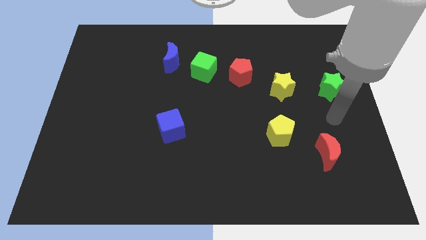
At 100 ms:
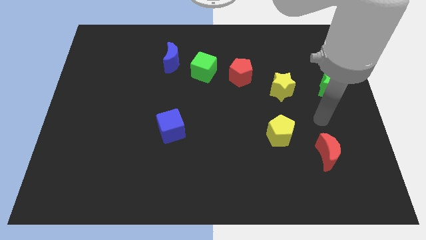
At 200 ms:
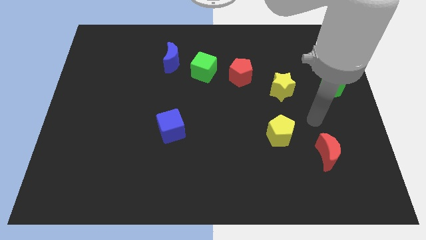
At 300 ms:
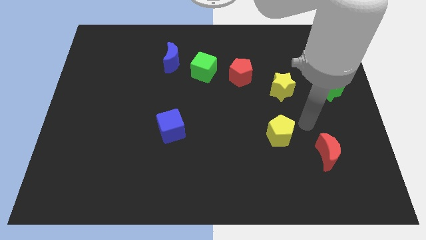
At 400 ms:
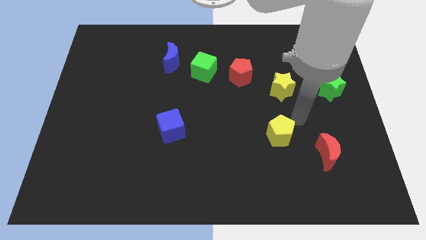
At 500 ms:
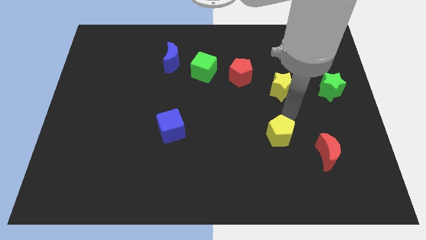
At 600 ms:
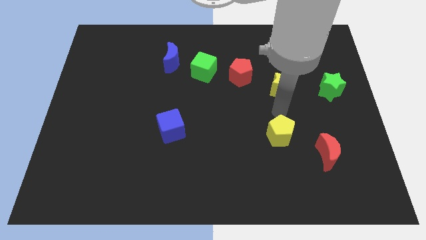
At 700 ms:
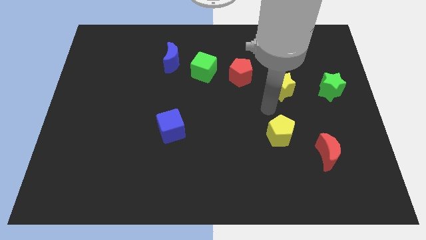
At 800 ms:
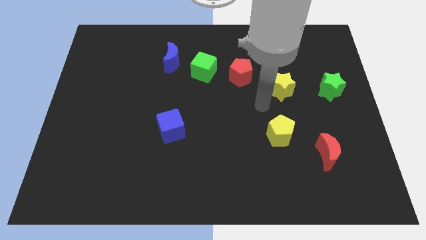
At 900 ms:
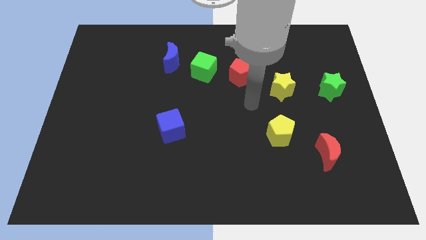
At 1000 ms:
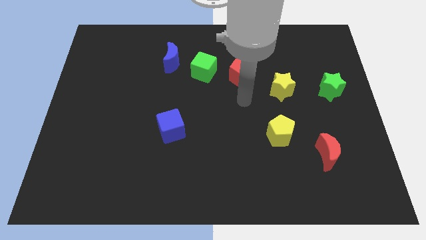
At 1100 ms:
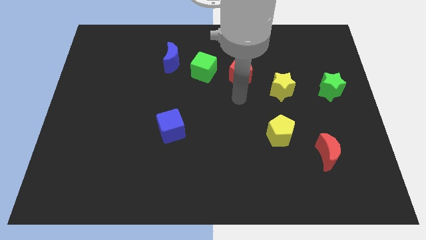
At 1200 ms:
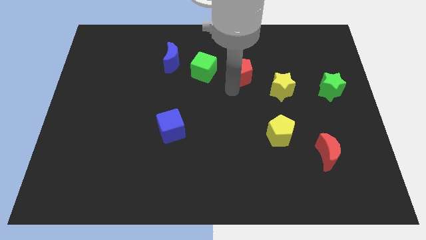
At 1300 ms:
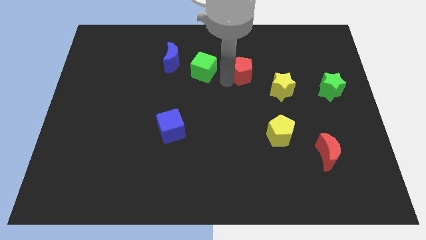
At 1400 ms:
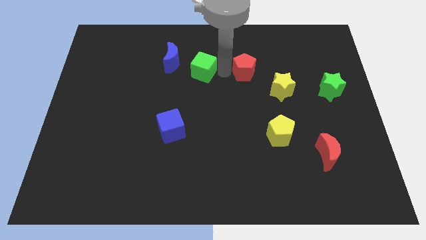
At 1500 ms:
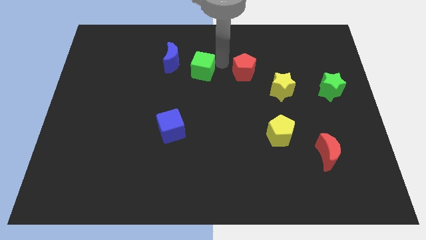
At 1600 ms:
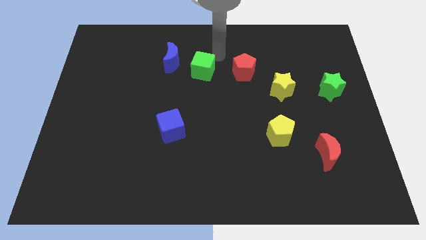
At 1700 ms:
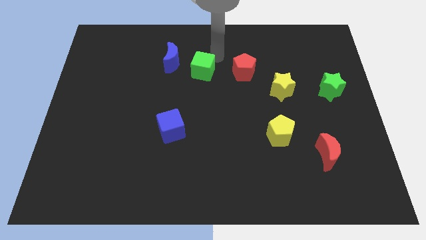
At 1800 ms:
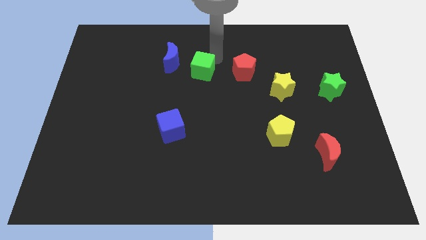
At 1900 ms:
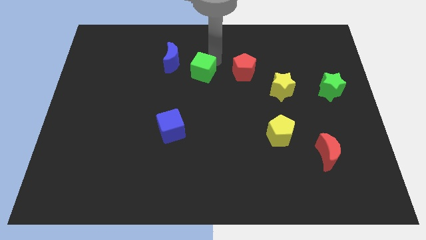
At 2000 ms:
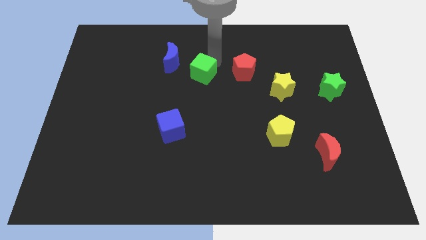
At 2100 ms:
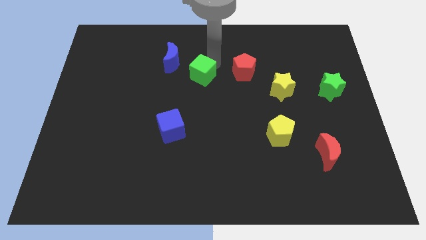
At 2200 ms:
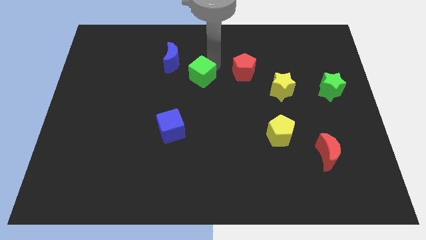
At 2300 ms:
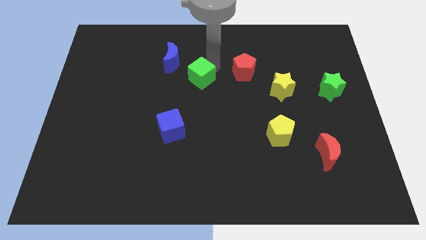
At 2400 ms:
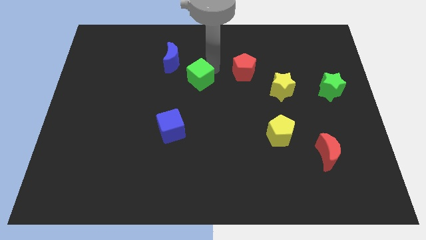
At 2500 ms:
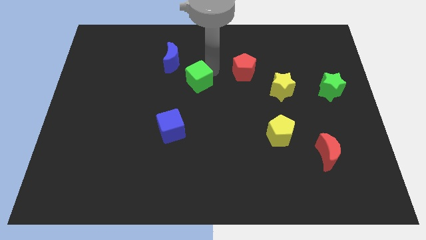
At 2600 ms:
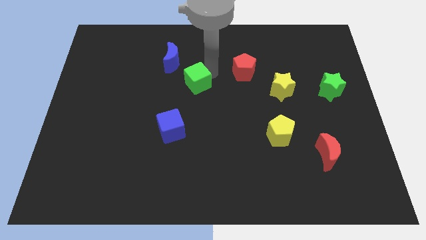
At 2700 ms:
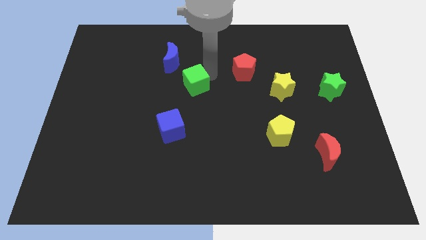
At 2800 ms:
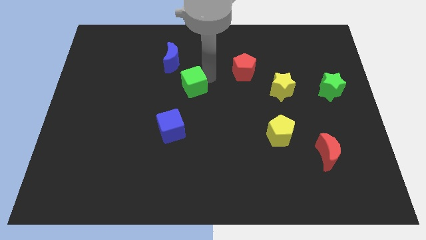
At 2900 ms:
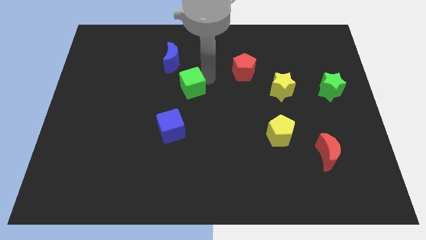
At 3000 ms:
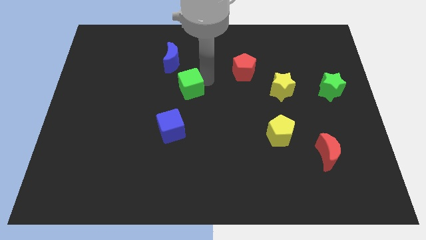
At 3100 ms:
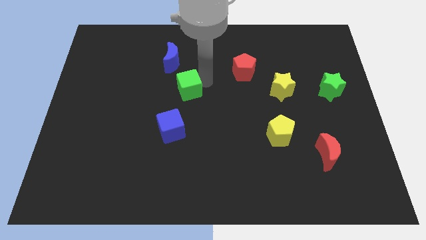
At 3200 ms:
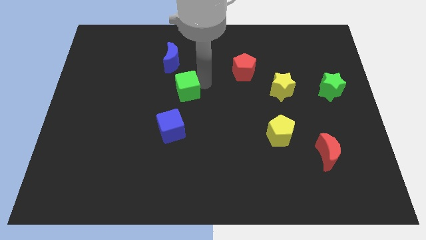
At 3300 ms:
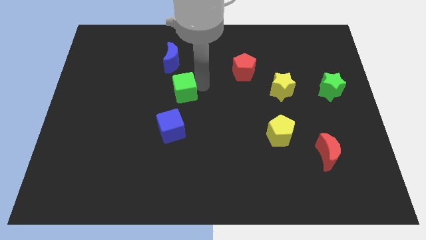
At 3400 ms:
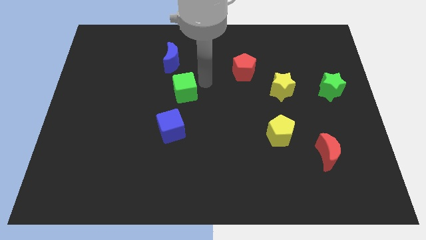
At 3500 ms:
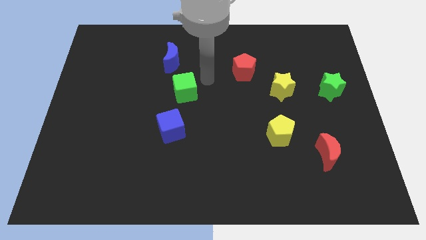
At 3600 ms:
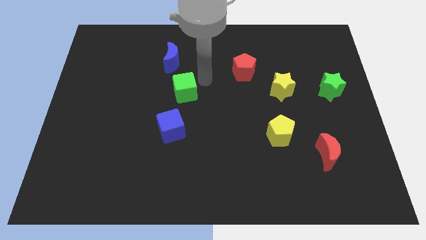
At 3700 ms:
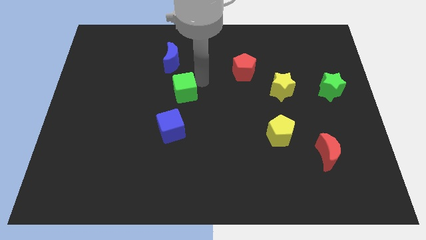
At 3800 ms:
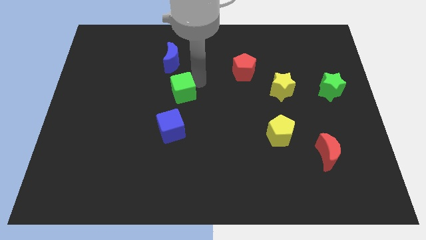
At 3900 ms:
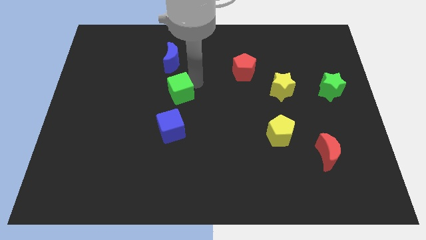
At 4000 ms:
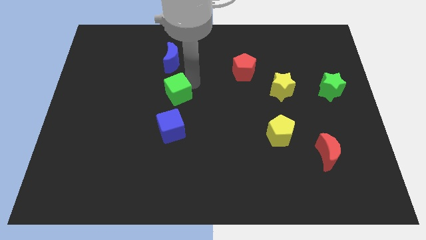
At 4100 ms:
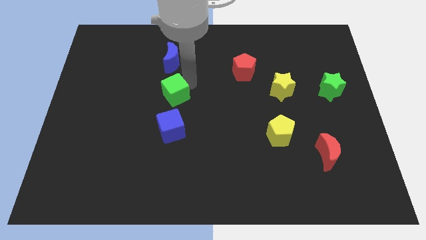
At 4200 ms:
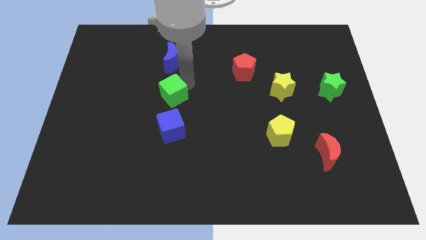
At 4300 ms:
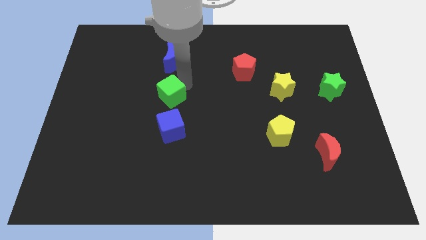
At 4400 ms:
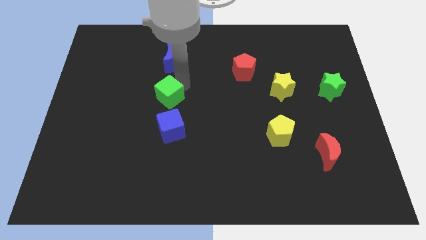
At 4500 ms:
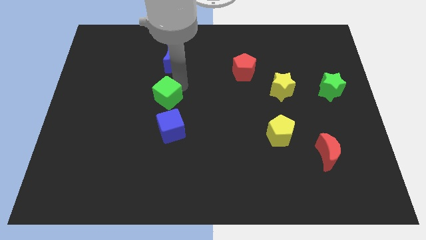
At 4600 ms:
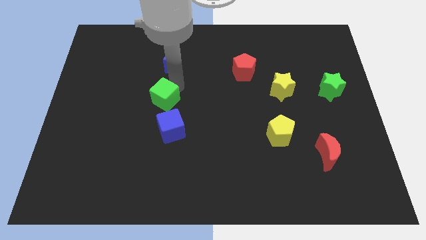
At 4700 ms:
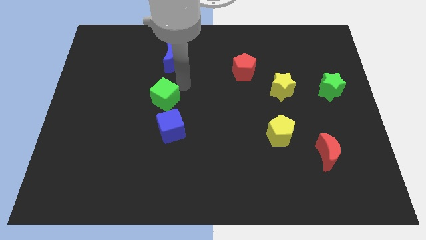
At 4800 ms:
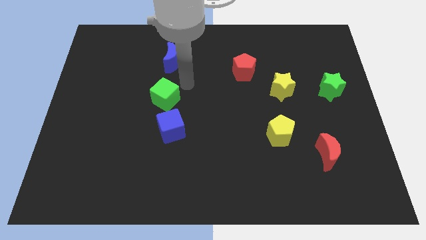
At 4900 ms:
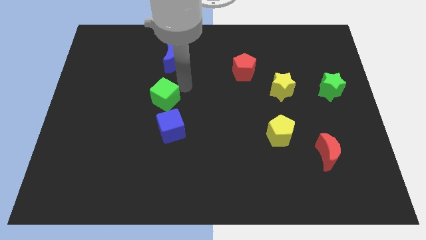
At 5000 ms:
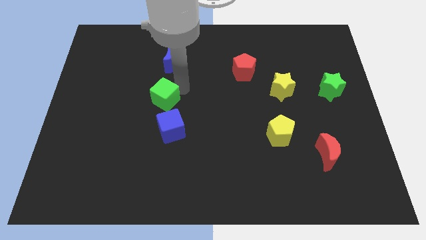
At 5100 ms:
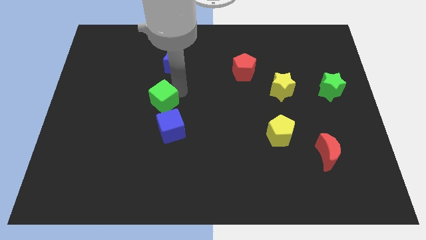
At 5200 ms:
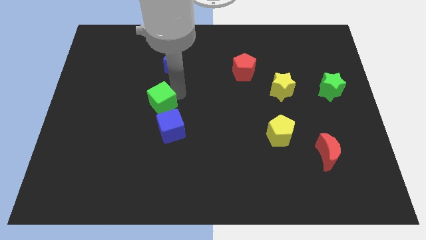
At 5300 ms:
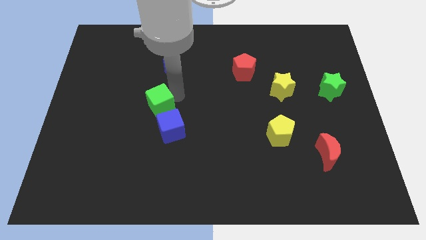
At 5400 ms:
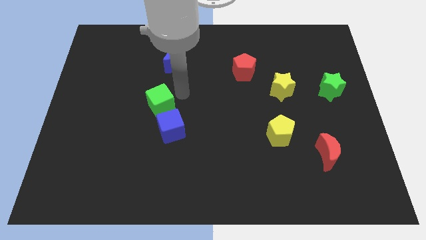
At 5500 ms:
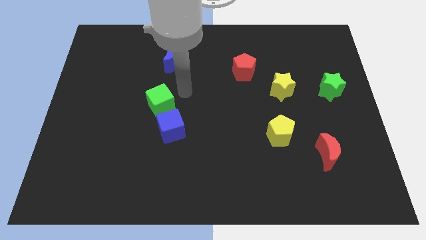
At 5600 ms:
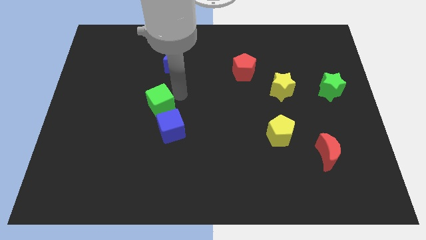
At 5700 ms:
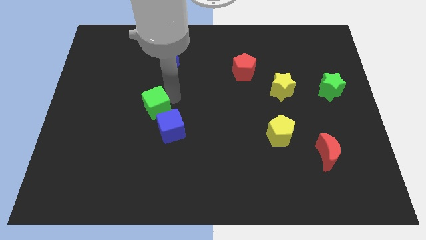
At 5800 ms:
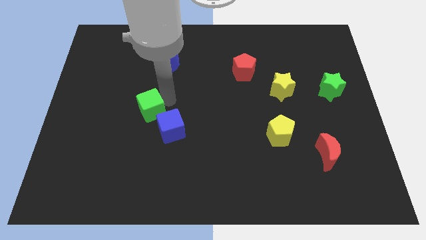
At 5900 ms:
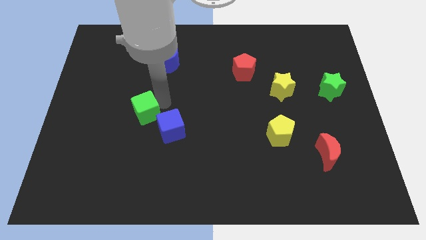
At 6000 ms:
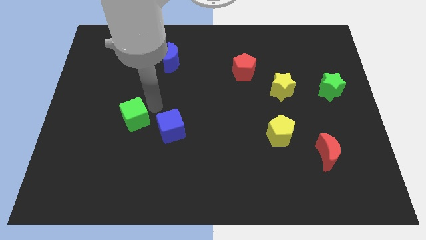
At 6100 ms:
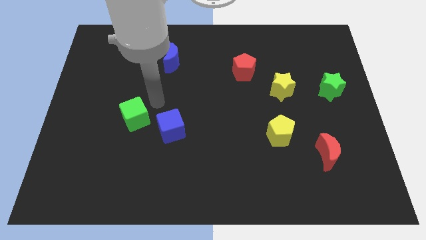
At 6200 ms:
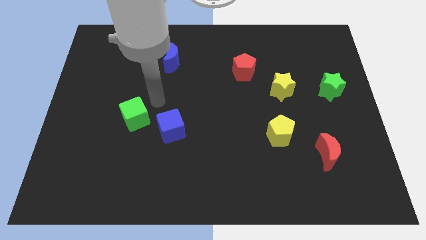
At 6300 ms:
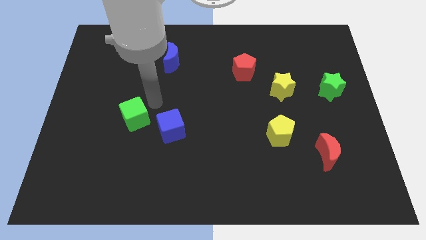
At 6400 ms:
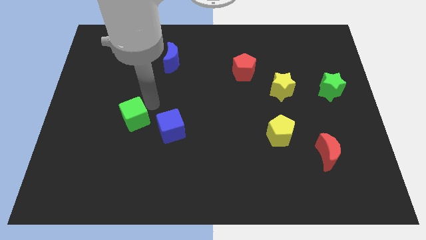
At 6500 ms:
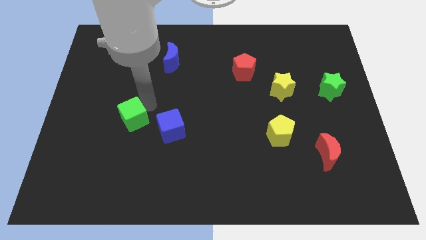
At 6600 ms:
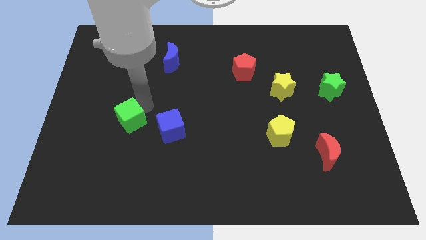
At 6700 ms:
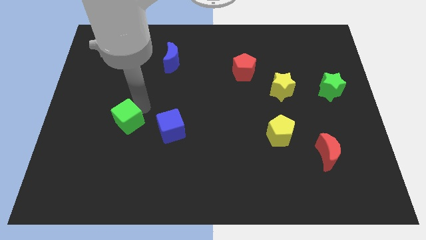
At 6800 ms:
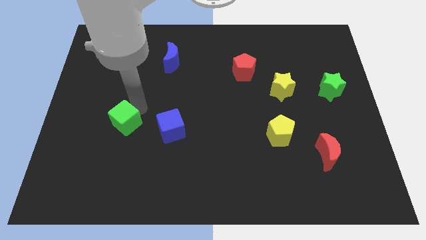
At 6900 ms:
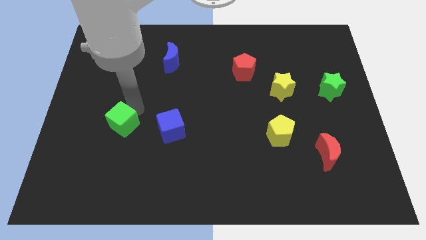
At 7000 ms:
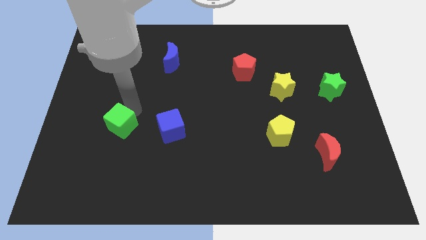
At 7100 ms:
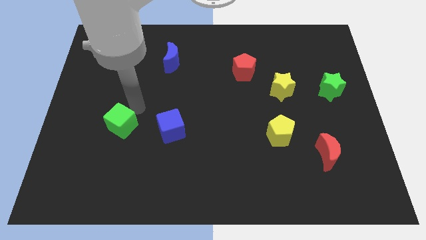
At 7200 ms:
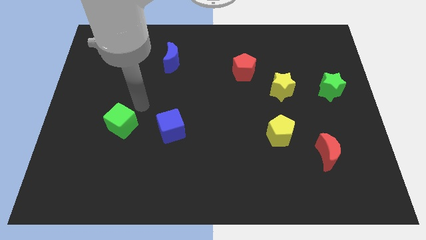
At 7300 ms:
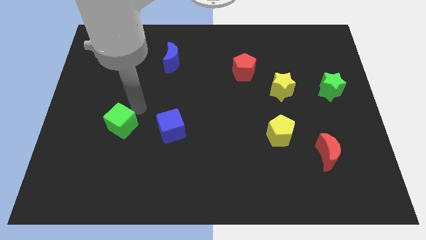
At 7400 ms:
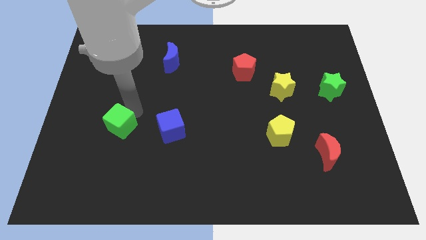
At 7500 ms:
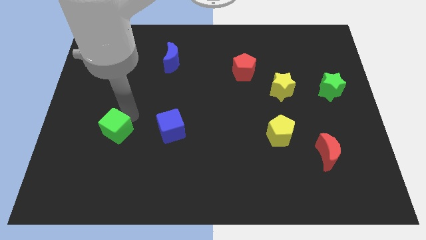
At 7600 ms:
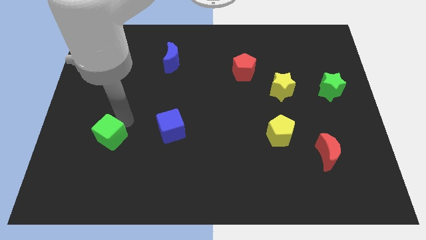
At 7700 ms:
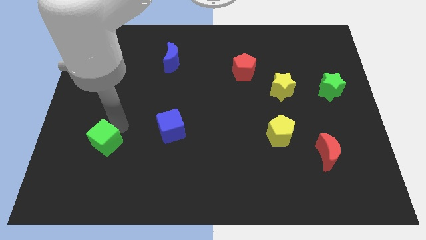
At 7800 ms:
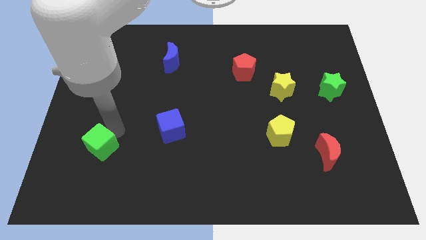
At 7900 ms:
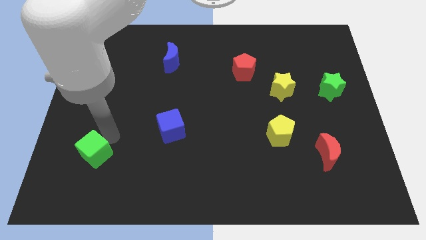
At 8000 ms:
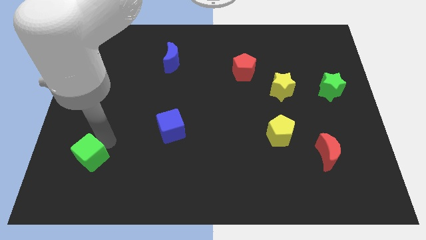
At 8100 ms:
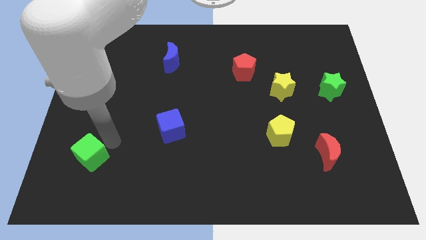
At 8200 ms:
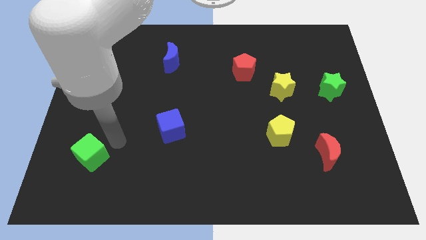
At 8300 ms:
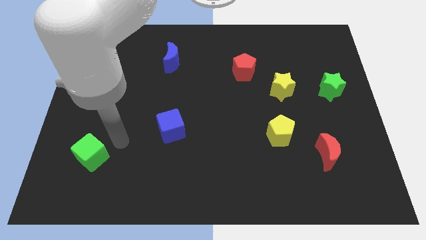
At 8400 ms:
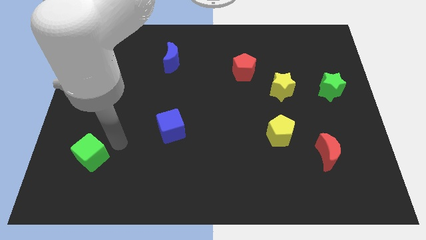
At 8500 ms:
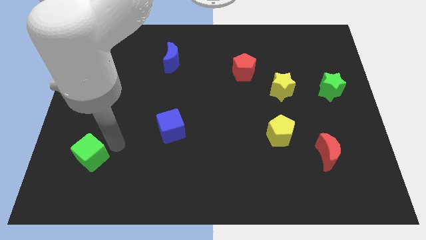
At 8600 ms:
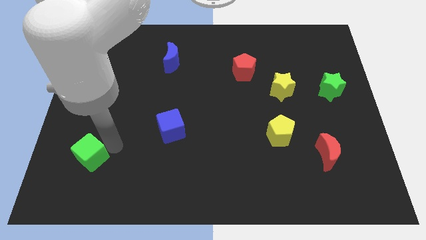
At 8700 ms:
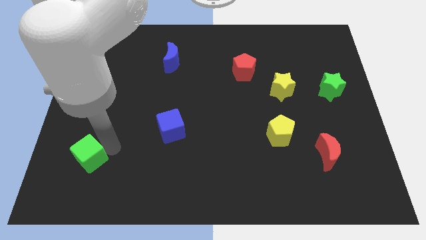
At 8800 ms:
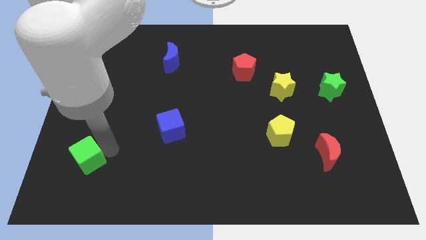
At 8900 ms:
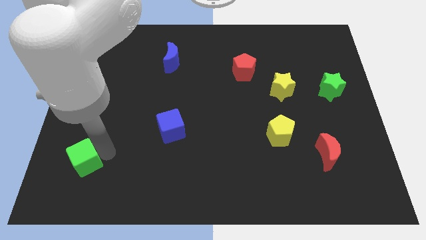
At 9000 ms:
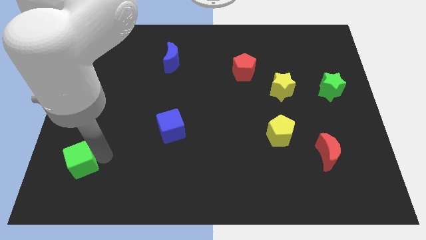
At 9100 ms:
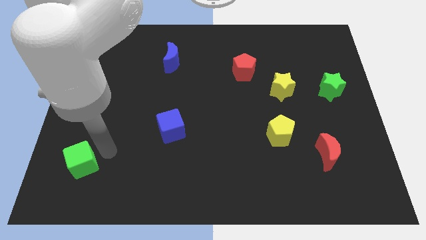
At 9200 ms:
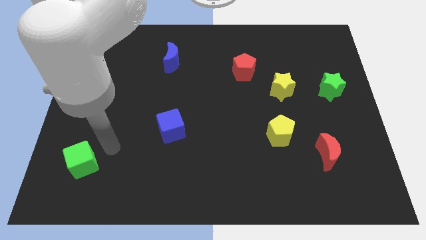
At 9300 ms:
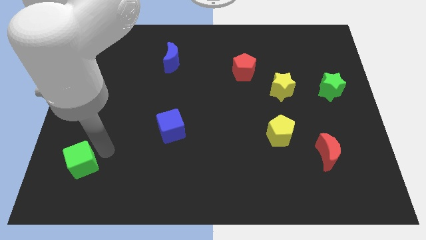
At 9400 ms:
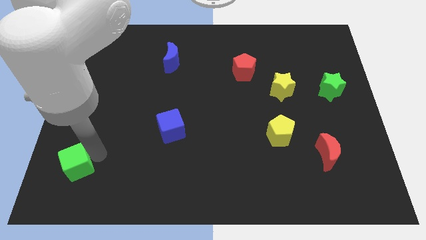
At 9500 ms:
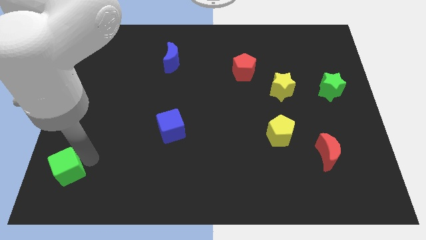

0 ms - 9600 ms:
move the green cube to the lower left corner
